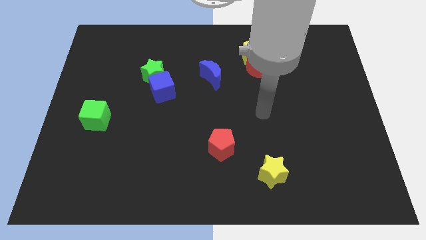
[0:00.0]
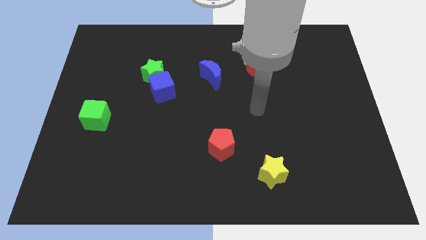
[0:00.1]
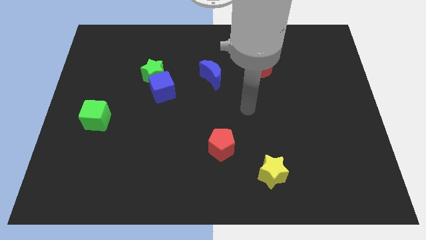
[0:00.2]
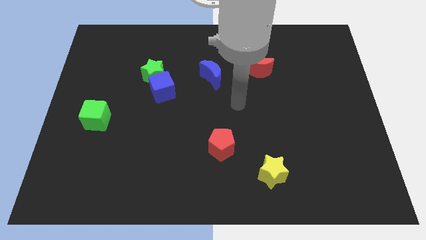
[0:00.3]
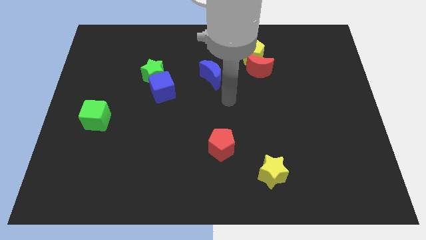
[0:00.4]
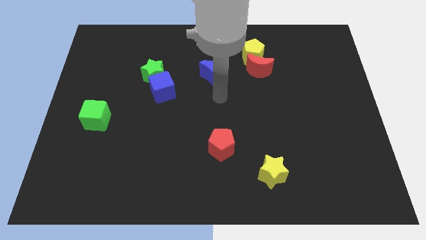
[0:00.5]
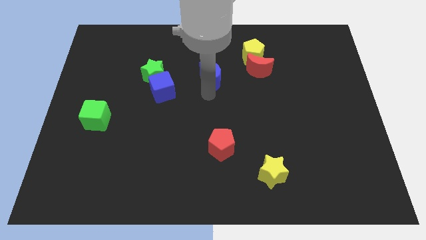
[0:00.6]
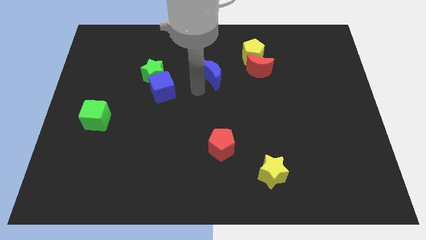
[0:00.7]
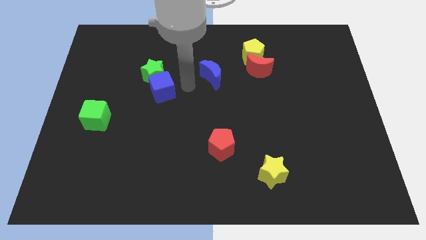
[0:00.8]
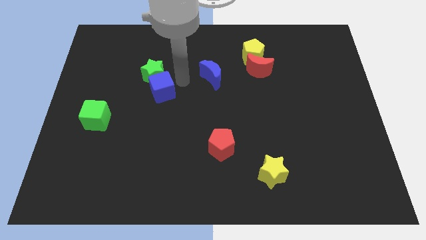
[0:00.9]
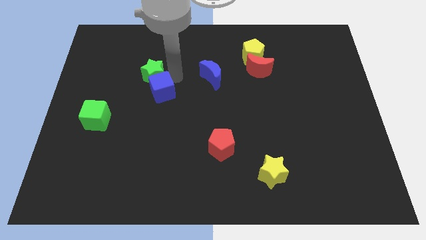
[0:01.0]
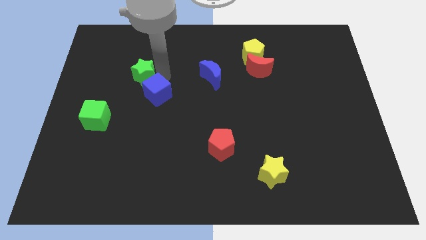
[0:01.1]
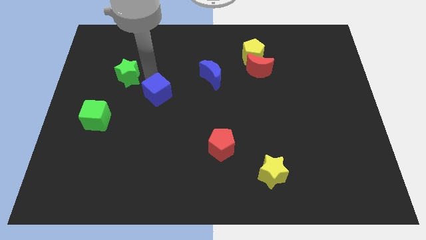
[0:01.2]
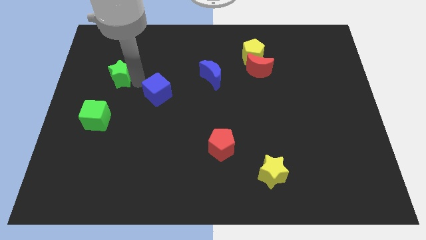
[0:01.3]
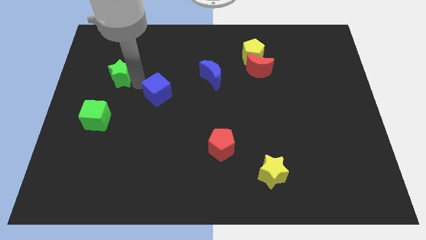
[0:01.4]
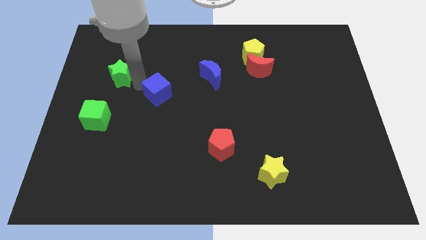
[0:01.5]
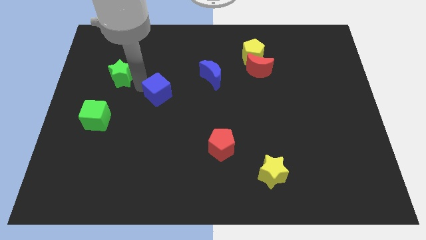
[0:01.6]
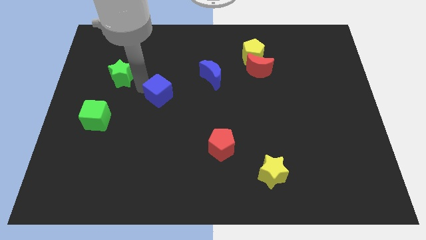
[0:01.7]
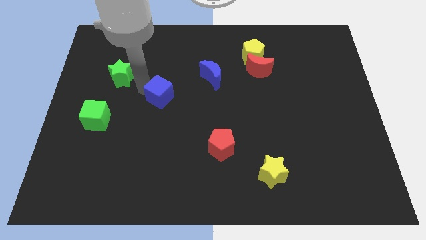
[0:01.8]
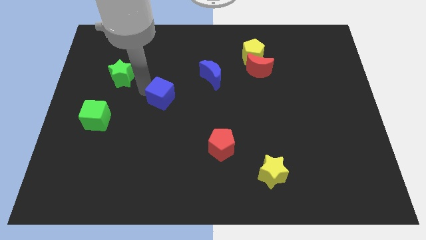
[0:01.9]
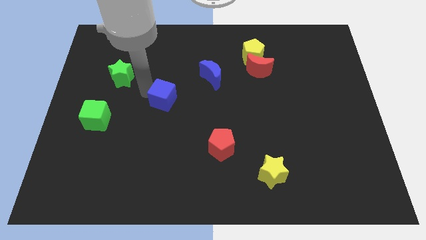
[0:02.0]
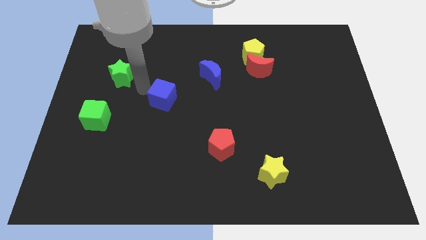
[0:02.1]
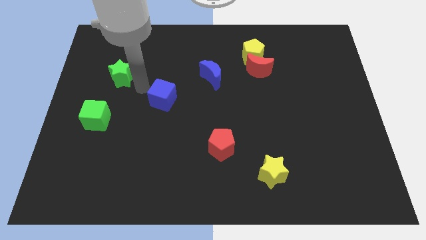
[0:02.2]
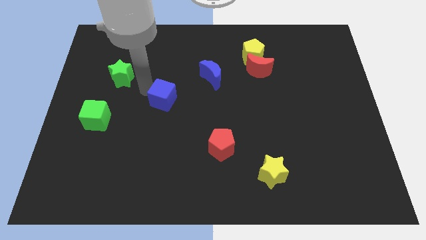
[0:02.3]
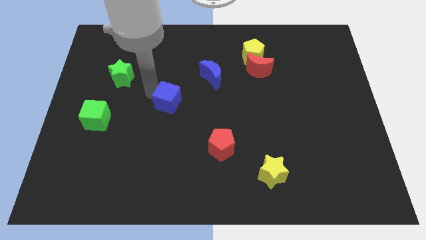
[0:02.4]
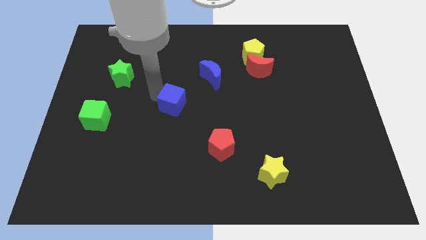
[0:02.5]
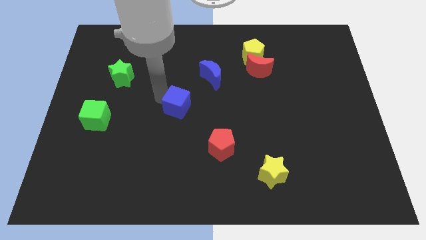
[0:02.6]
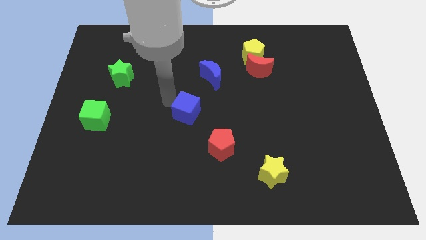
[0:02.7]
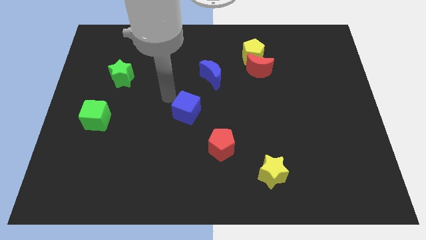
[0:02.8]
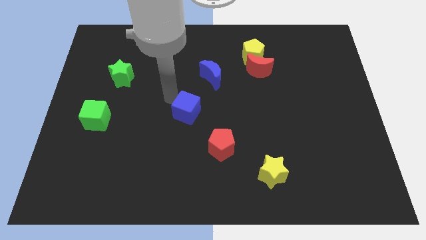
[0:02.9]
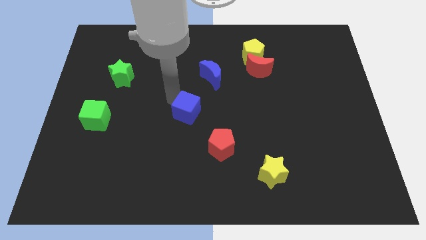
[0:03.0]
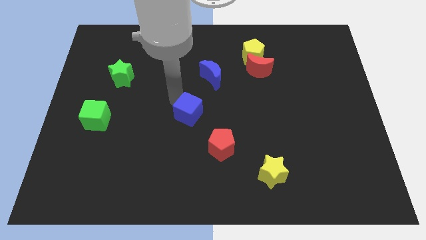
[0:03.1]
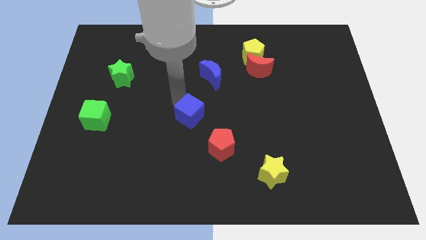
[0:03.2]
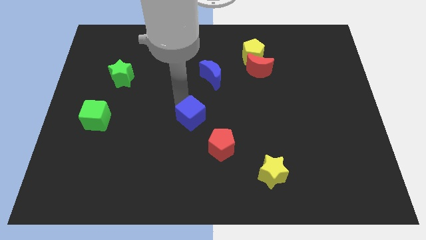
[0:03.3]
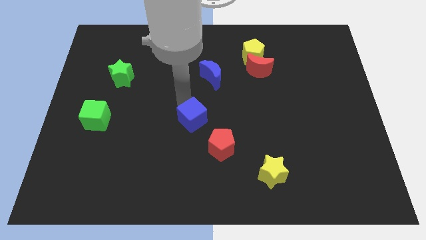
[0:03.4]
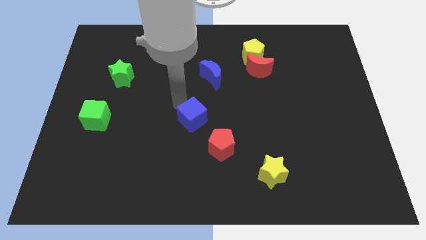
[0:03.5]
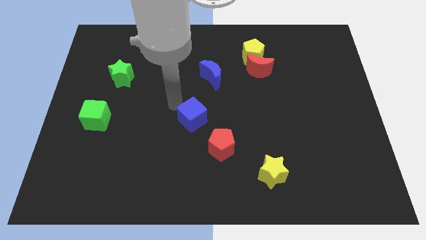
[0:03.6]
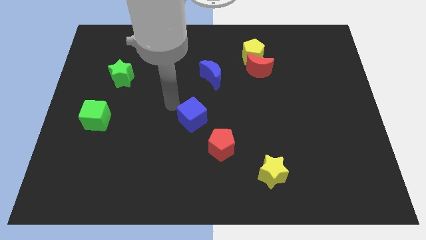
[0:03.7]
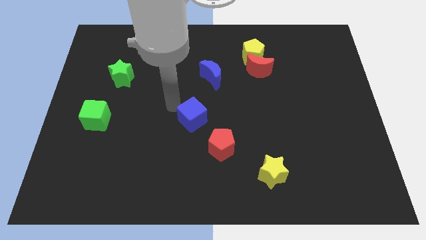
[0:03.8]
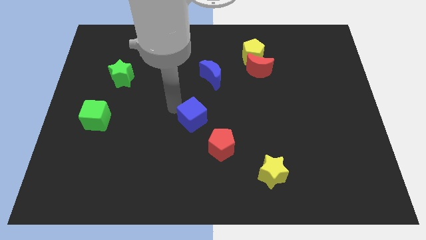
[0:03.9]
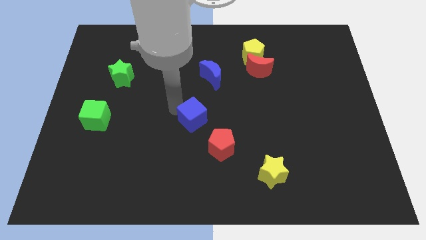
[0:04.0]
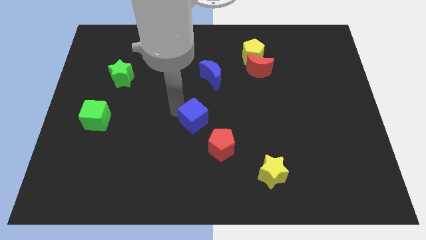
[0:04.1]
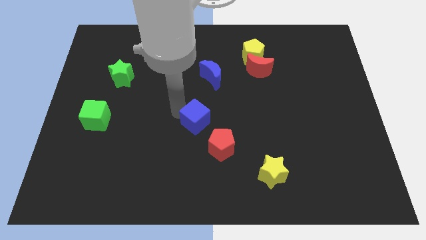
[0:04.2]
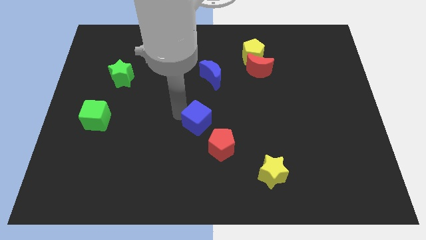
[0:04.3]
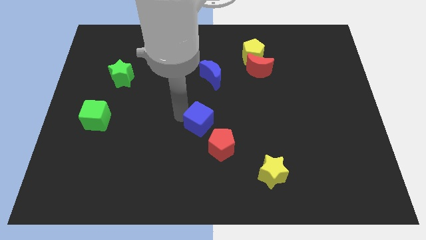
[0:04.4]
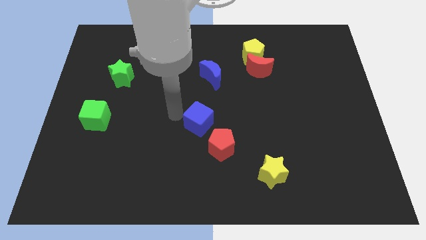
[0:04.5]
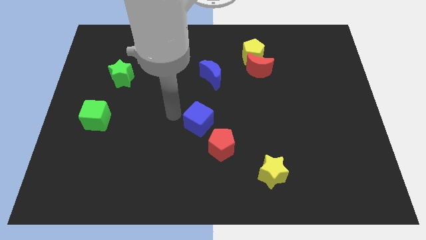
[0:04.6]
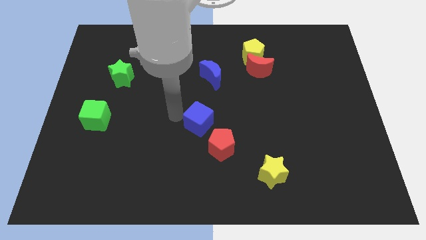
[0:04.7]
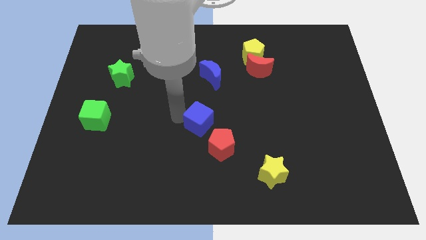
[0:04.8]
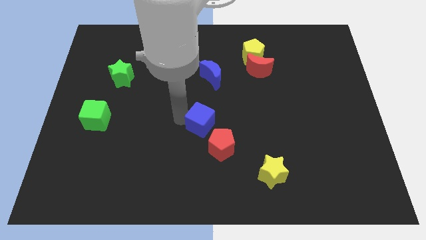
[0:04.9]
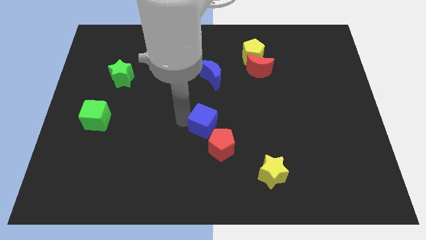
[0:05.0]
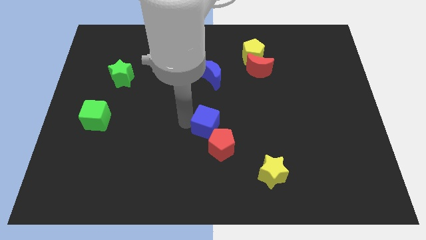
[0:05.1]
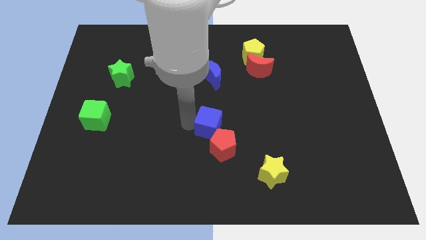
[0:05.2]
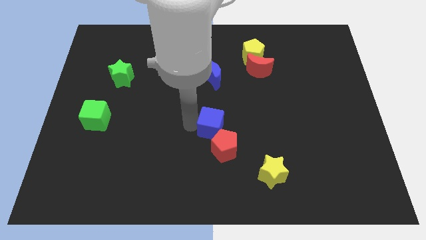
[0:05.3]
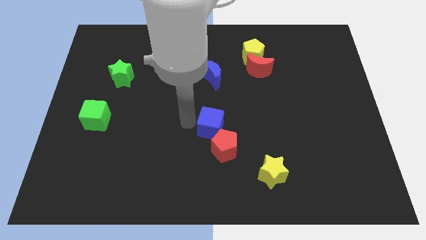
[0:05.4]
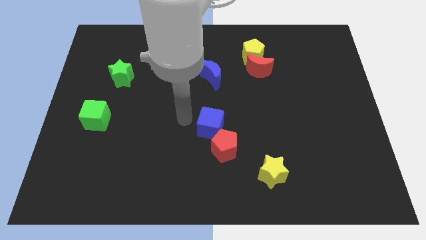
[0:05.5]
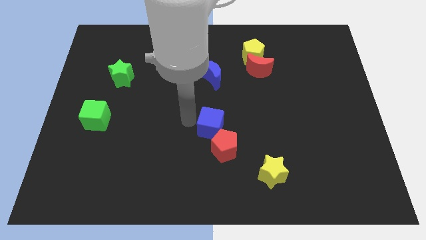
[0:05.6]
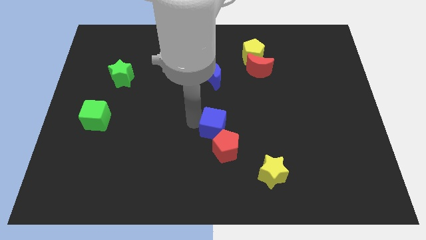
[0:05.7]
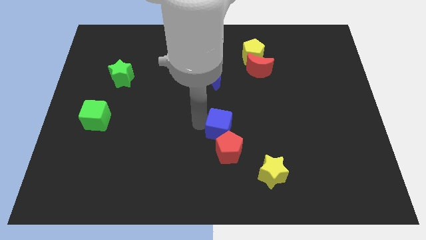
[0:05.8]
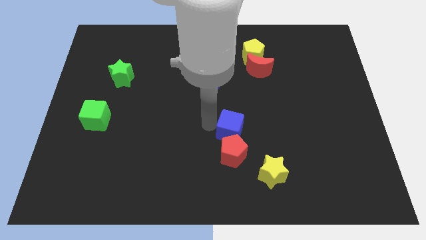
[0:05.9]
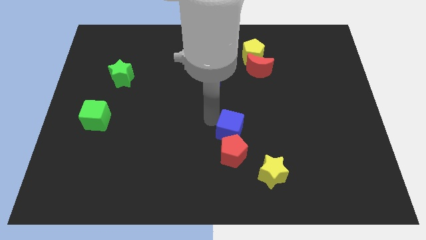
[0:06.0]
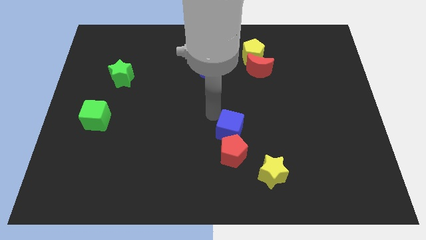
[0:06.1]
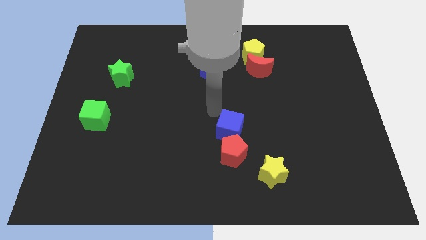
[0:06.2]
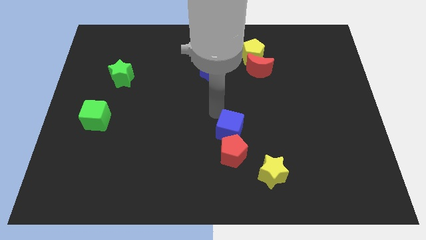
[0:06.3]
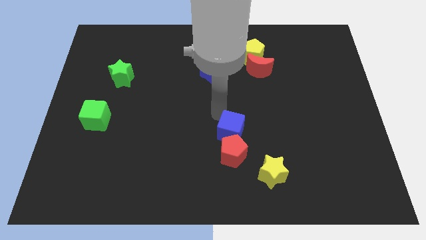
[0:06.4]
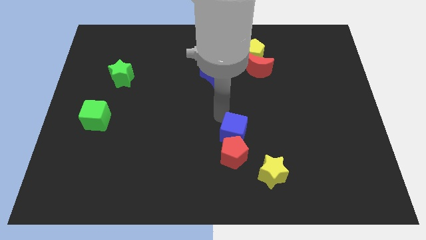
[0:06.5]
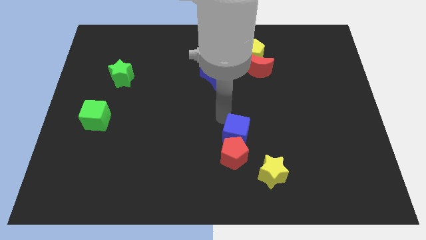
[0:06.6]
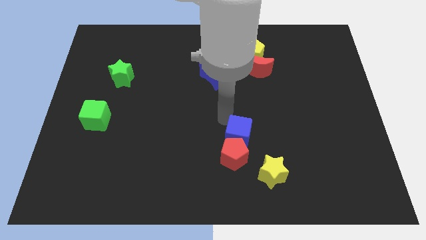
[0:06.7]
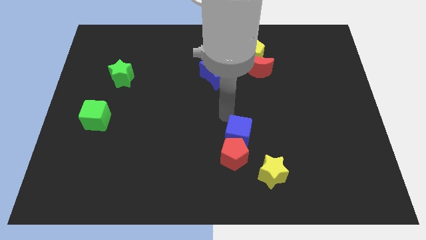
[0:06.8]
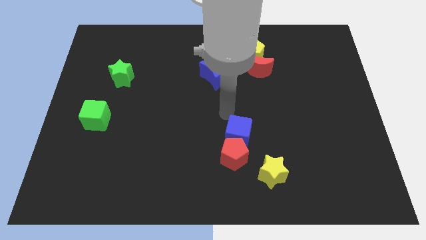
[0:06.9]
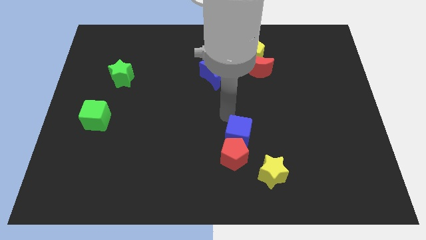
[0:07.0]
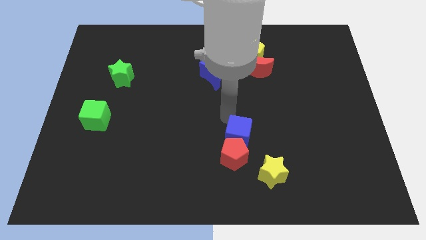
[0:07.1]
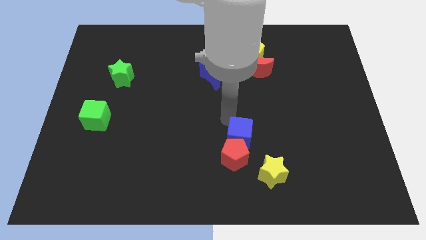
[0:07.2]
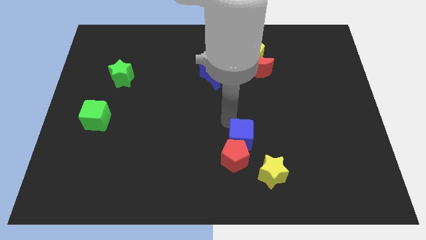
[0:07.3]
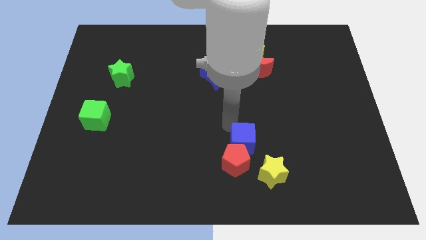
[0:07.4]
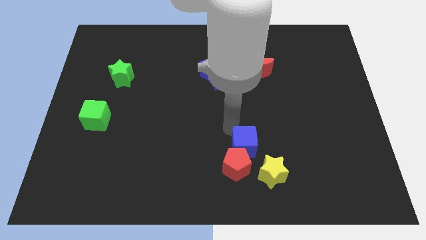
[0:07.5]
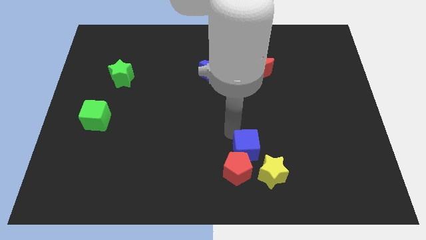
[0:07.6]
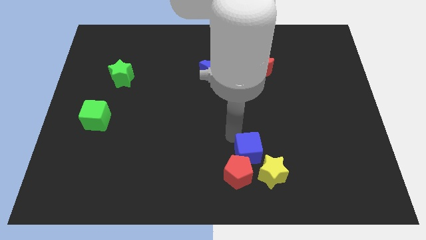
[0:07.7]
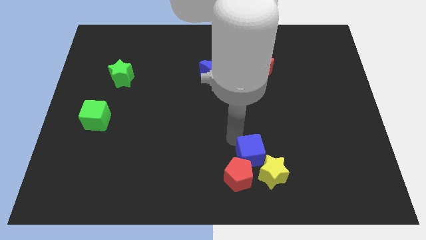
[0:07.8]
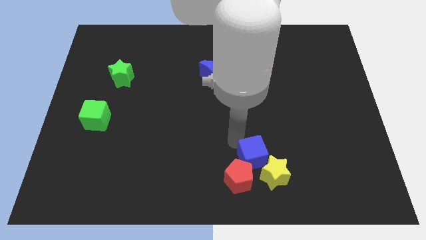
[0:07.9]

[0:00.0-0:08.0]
push the blue cube close to the yellow star

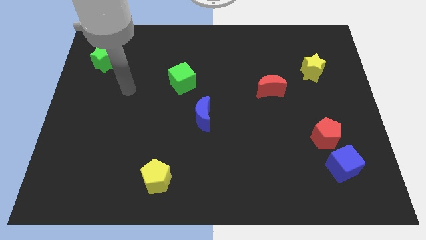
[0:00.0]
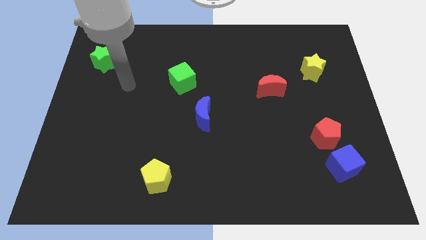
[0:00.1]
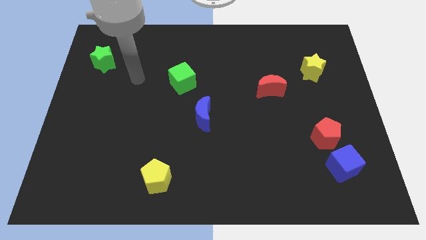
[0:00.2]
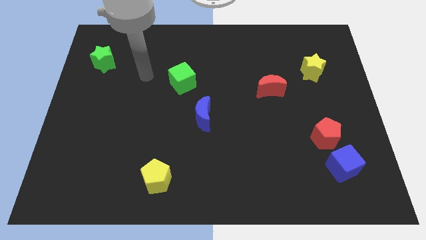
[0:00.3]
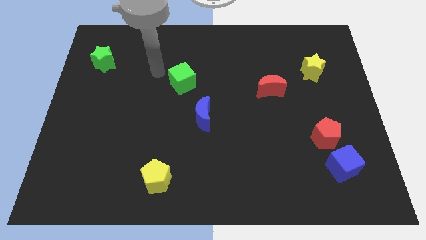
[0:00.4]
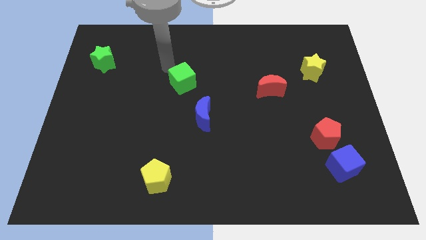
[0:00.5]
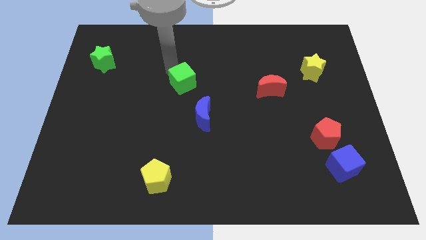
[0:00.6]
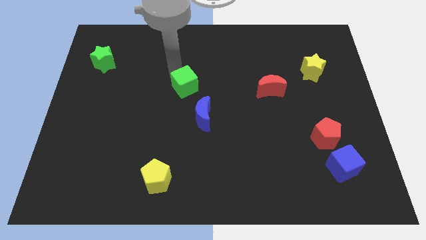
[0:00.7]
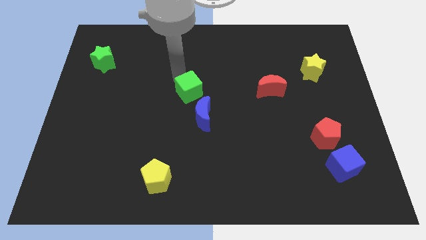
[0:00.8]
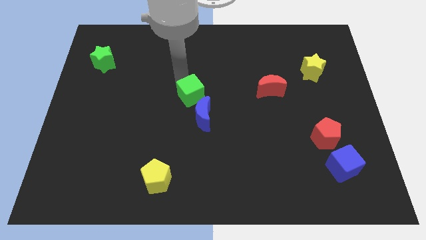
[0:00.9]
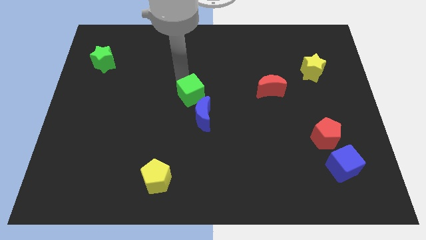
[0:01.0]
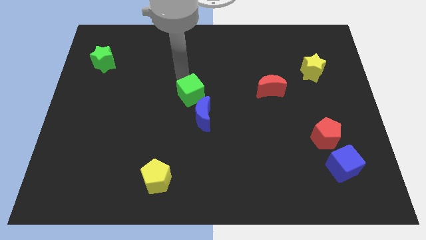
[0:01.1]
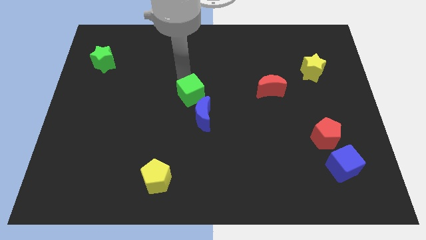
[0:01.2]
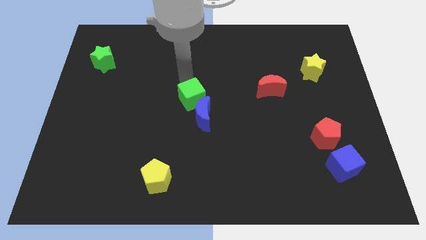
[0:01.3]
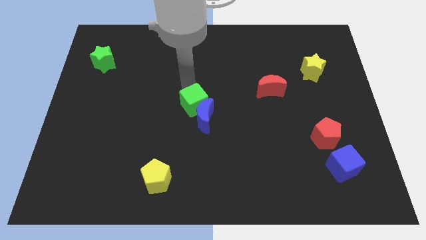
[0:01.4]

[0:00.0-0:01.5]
push the green cube close to the blue moon
